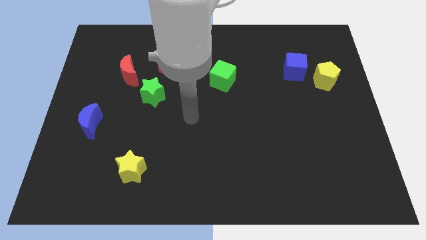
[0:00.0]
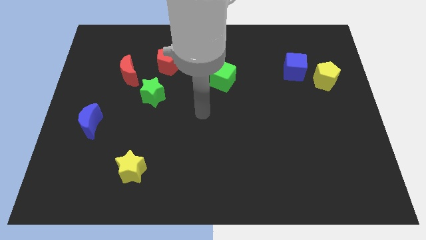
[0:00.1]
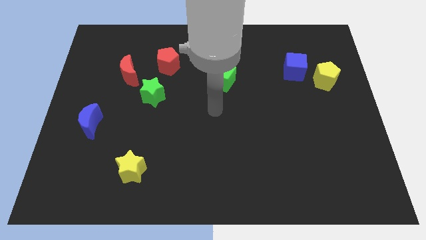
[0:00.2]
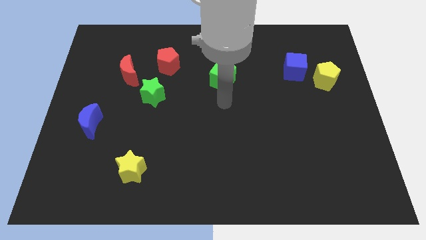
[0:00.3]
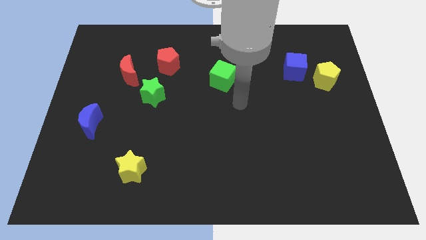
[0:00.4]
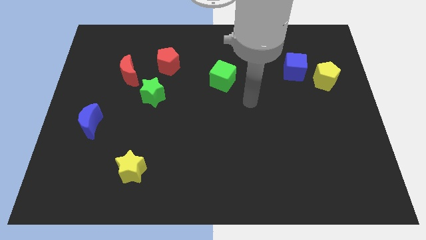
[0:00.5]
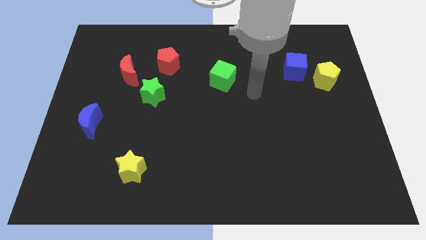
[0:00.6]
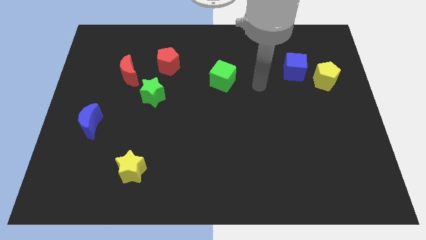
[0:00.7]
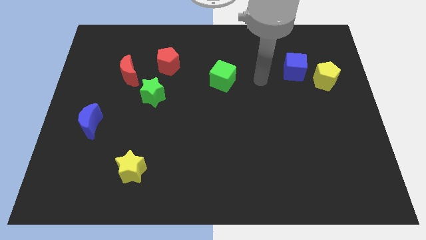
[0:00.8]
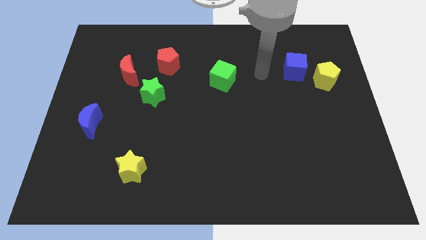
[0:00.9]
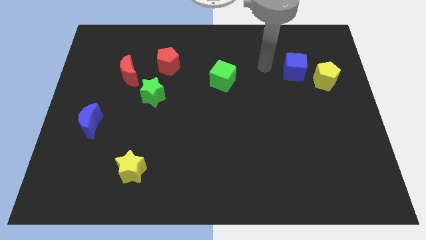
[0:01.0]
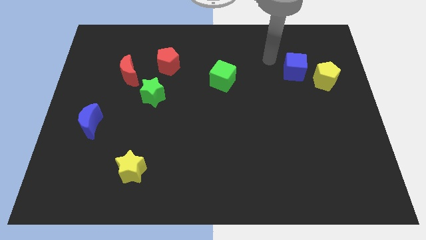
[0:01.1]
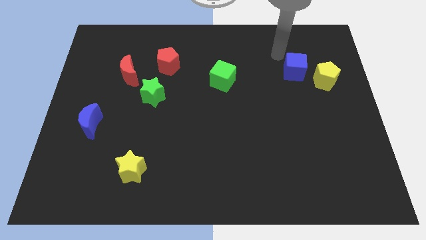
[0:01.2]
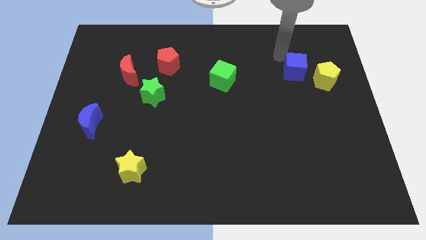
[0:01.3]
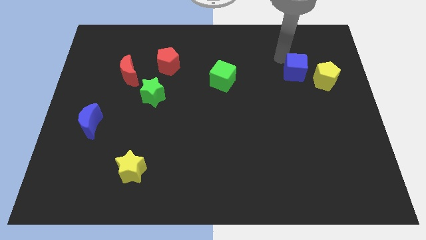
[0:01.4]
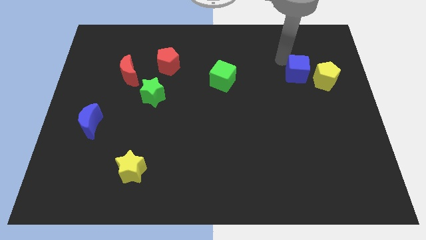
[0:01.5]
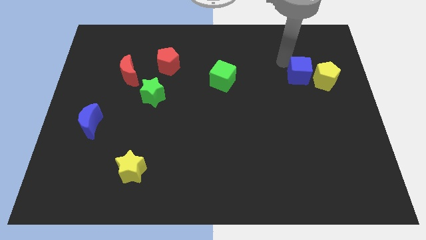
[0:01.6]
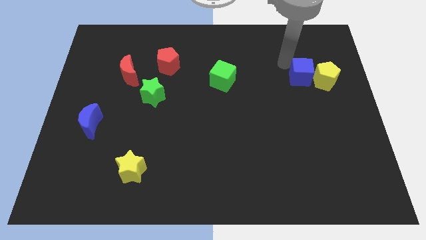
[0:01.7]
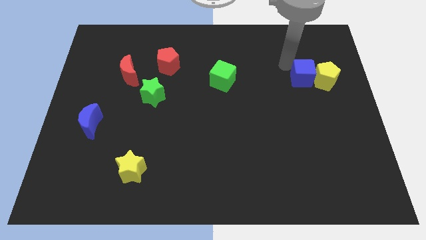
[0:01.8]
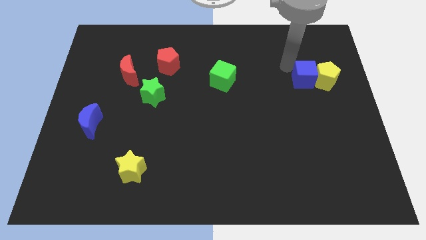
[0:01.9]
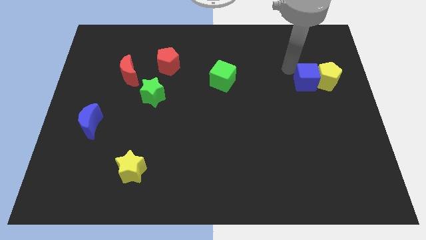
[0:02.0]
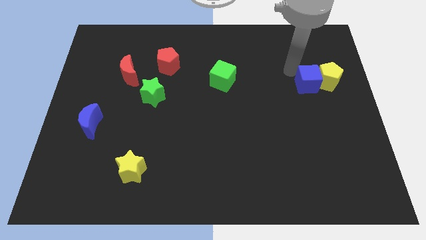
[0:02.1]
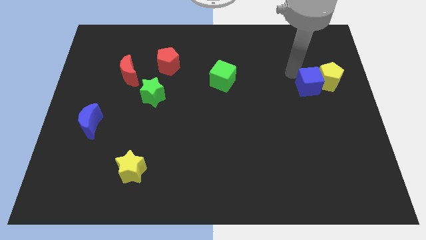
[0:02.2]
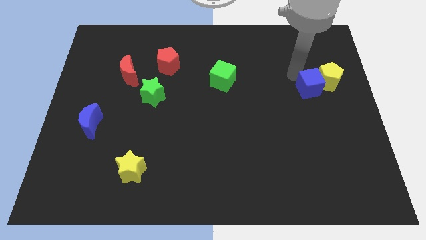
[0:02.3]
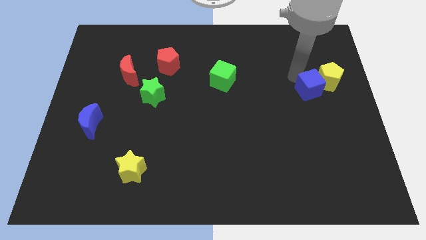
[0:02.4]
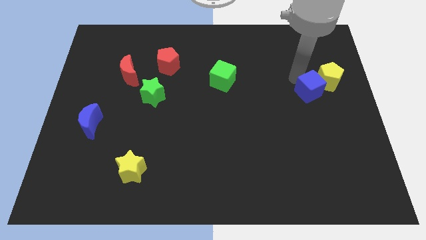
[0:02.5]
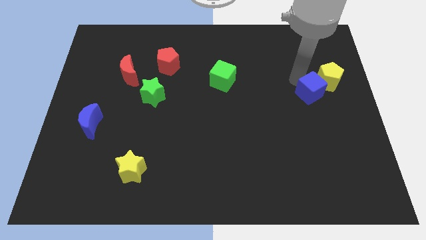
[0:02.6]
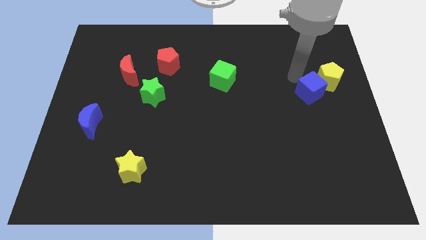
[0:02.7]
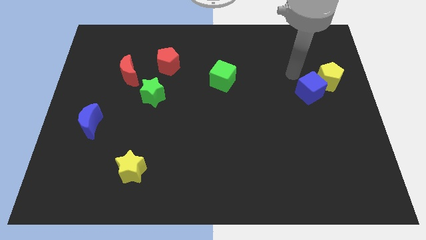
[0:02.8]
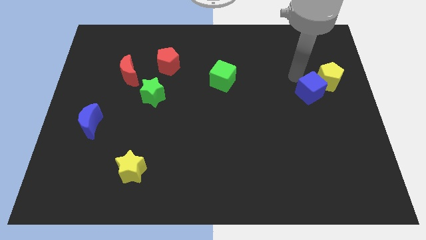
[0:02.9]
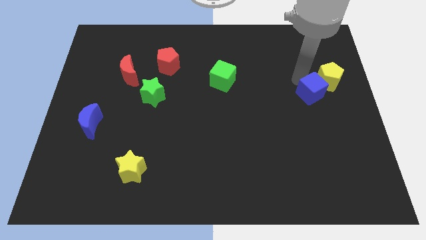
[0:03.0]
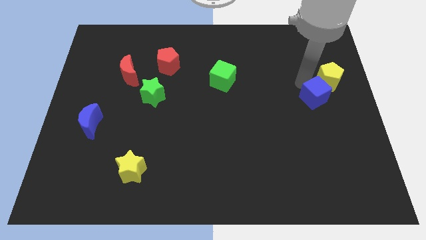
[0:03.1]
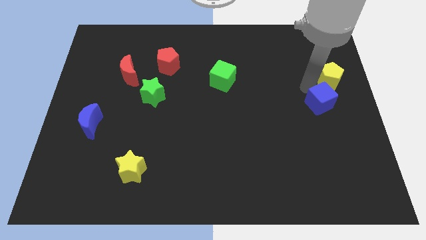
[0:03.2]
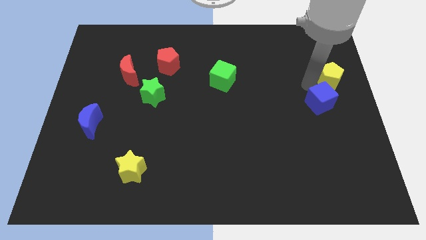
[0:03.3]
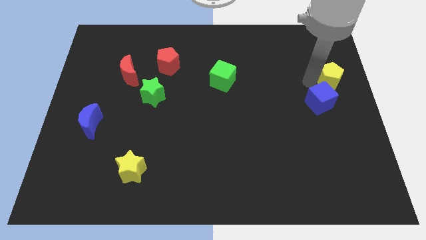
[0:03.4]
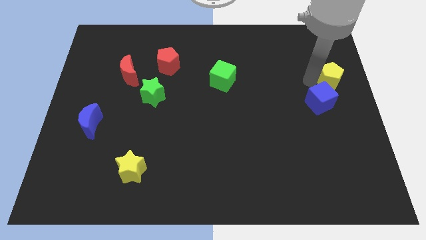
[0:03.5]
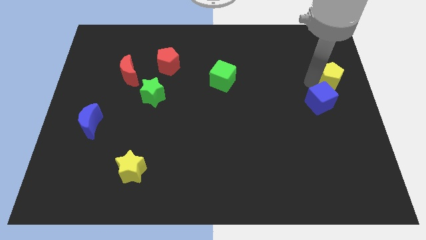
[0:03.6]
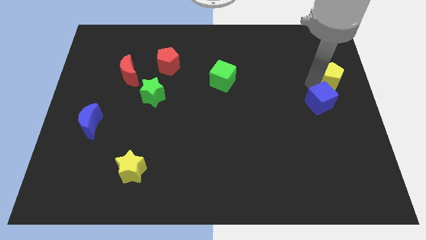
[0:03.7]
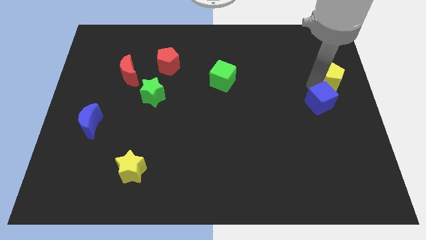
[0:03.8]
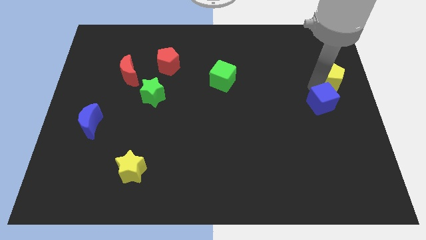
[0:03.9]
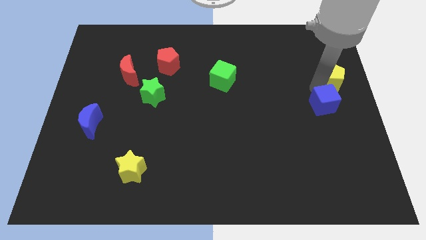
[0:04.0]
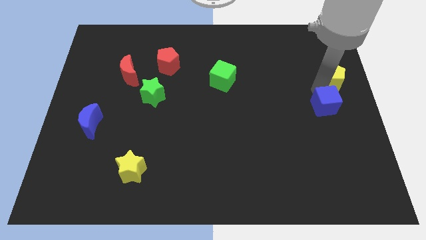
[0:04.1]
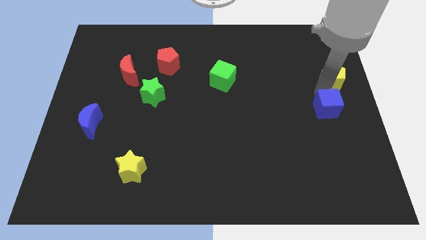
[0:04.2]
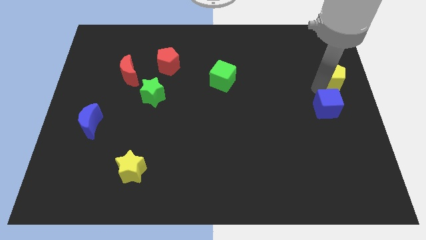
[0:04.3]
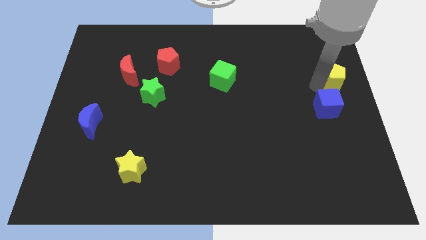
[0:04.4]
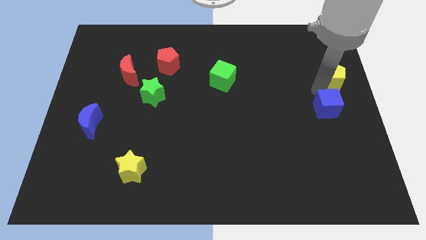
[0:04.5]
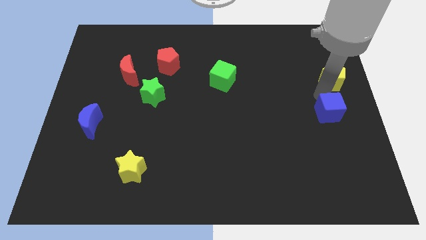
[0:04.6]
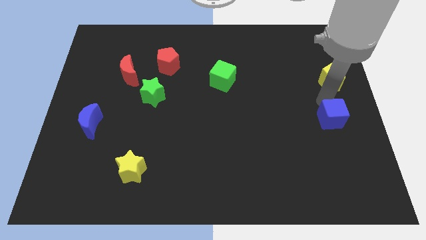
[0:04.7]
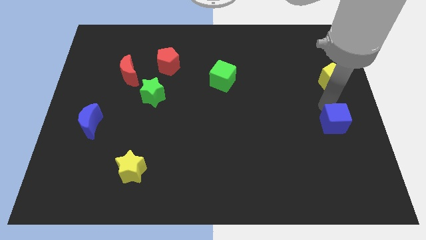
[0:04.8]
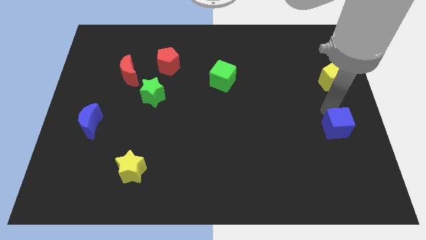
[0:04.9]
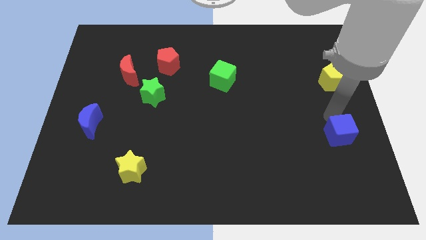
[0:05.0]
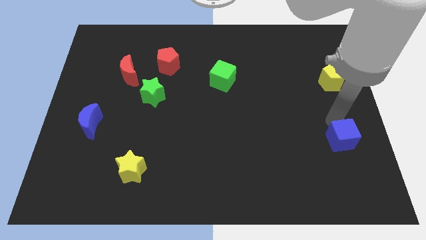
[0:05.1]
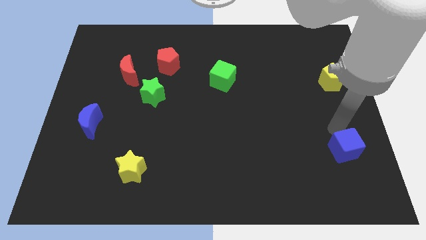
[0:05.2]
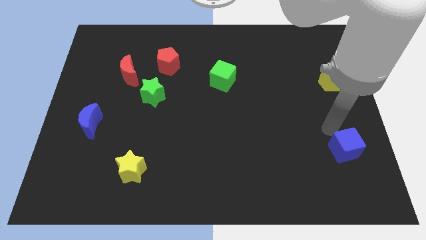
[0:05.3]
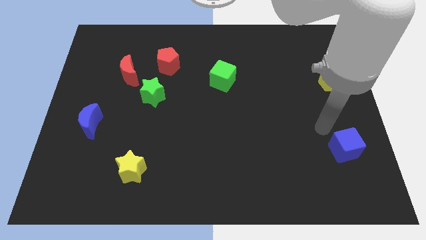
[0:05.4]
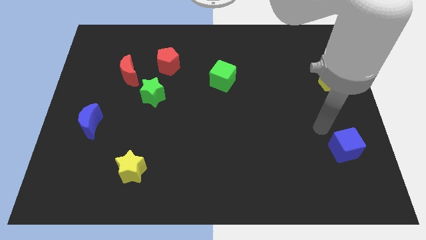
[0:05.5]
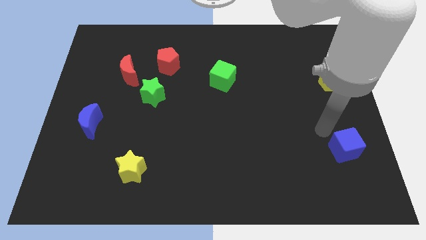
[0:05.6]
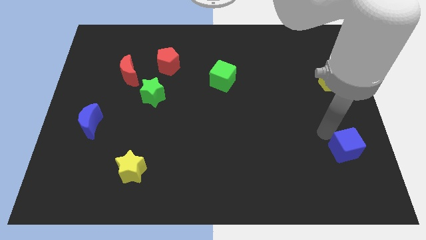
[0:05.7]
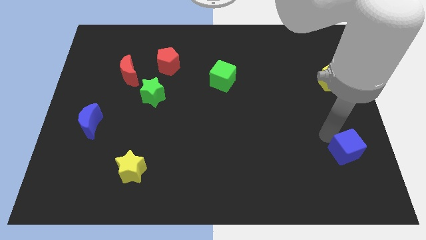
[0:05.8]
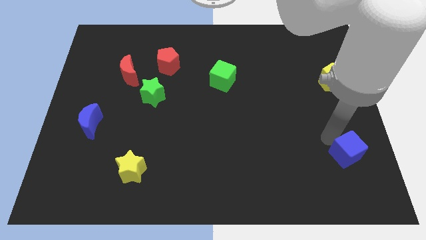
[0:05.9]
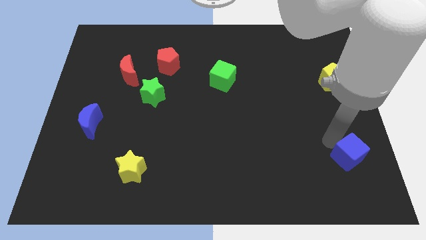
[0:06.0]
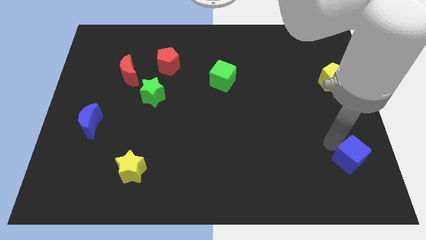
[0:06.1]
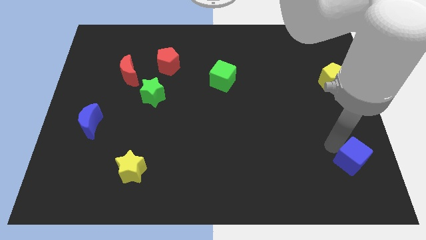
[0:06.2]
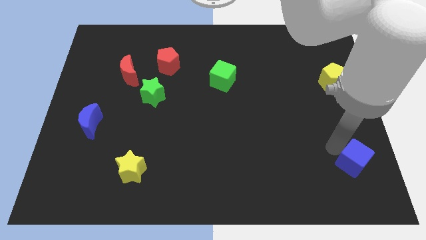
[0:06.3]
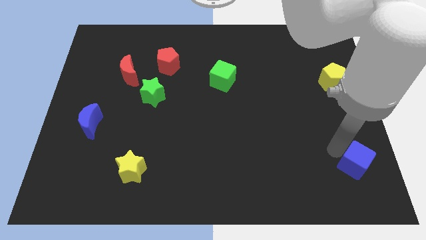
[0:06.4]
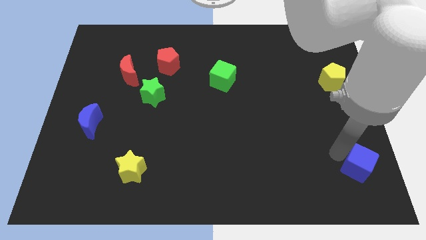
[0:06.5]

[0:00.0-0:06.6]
move the blue cube to the bottom right

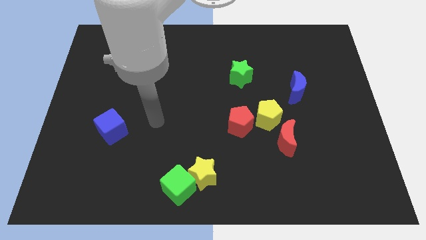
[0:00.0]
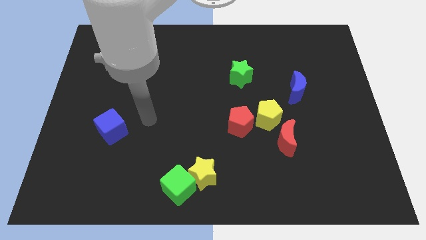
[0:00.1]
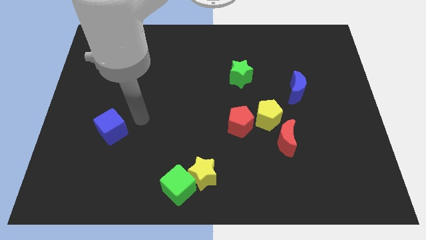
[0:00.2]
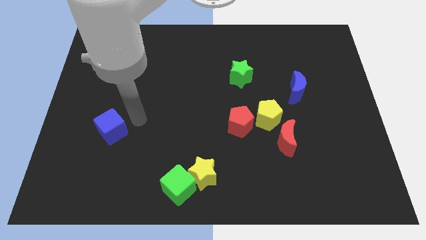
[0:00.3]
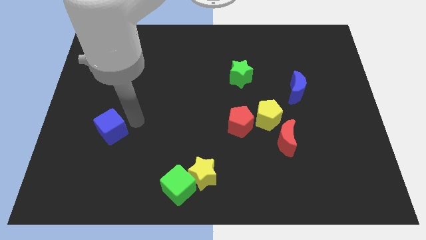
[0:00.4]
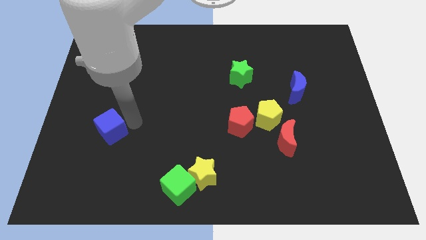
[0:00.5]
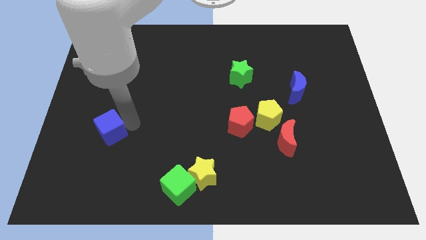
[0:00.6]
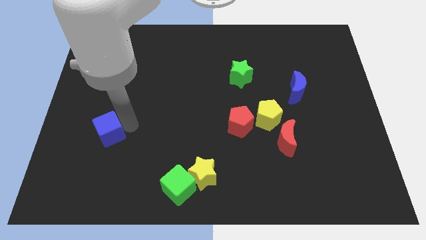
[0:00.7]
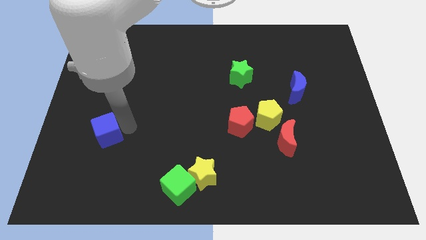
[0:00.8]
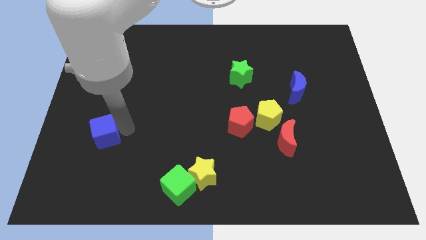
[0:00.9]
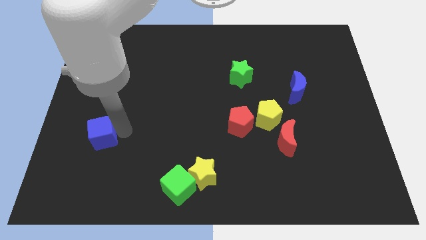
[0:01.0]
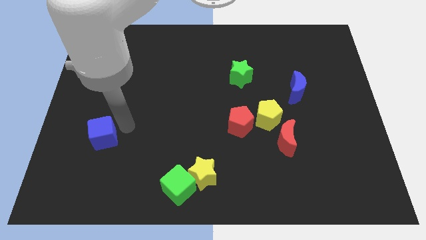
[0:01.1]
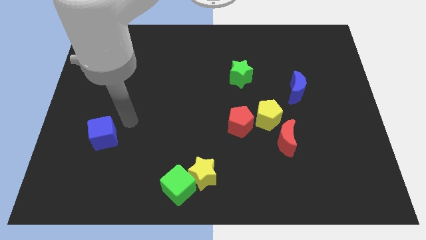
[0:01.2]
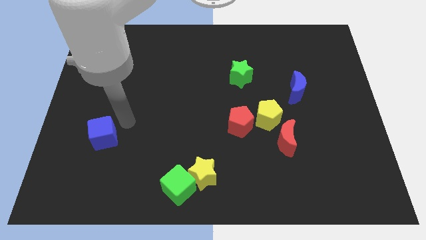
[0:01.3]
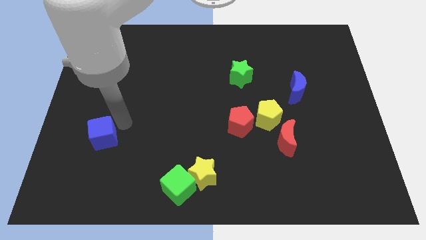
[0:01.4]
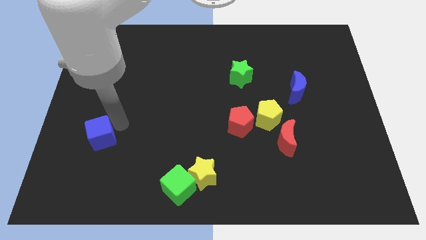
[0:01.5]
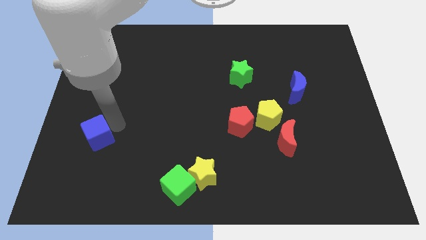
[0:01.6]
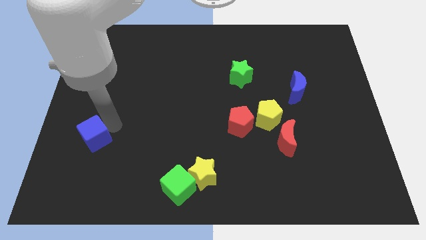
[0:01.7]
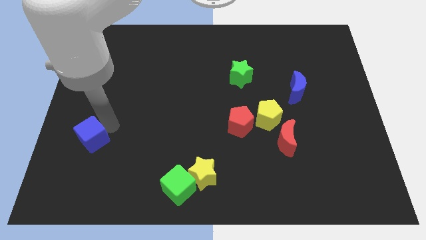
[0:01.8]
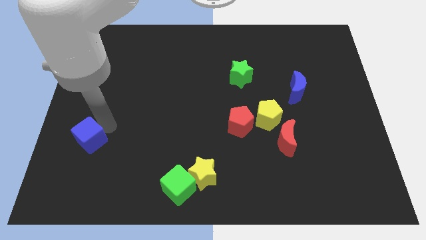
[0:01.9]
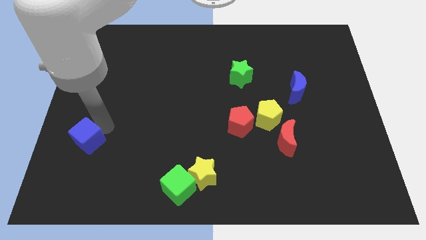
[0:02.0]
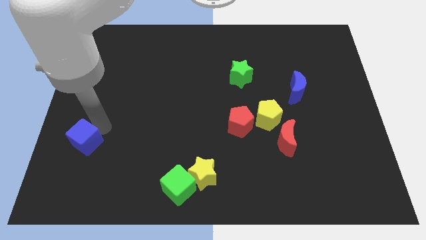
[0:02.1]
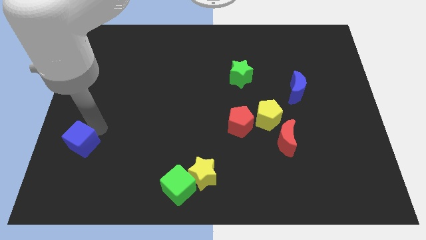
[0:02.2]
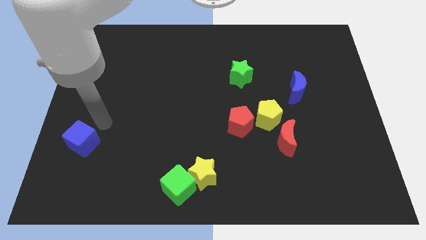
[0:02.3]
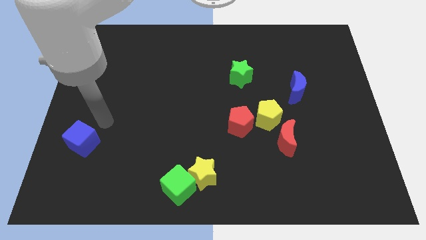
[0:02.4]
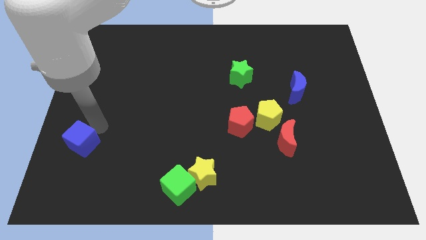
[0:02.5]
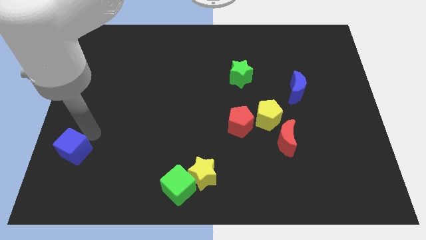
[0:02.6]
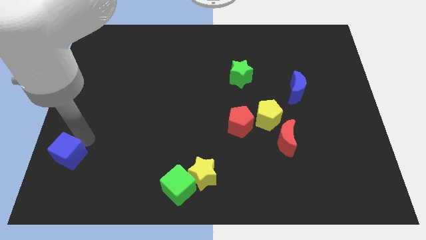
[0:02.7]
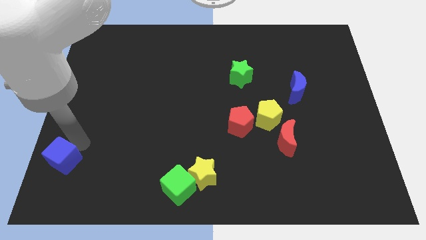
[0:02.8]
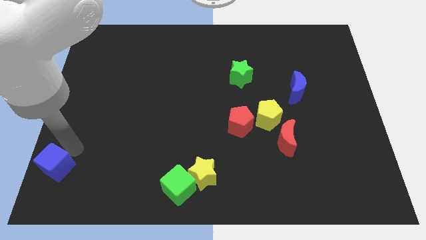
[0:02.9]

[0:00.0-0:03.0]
put the blue cube to the lower left corner
